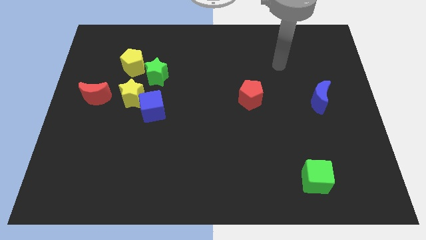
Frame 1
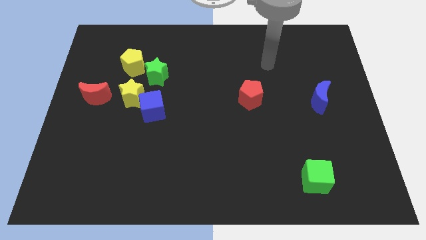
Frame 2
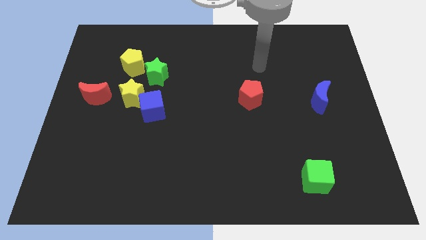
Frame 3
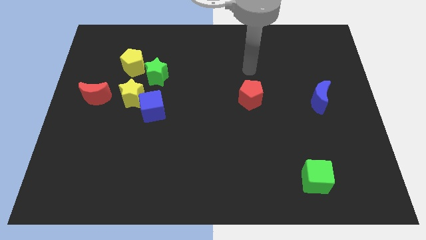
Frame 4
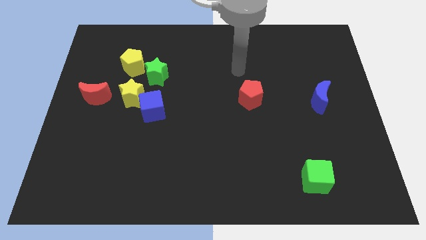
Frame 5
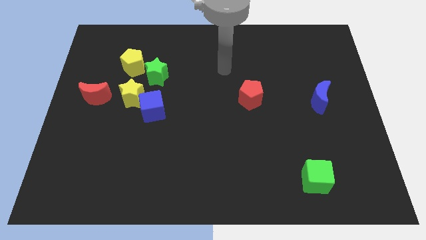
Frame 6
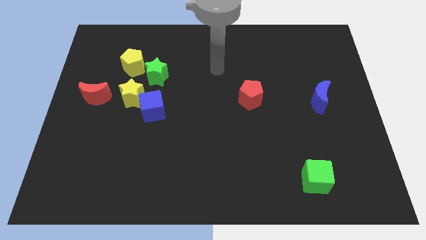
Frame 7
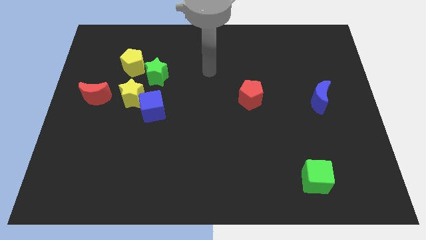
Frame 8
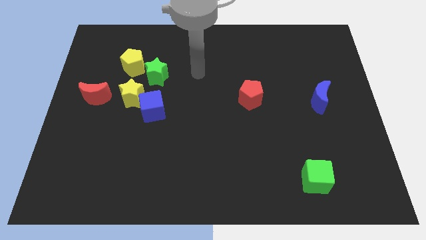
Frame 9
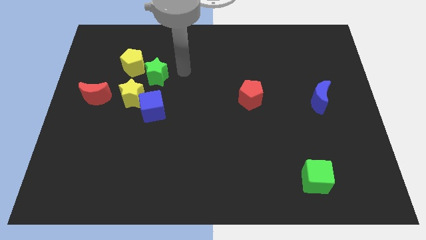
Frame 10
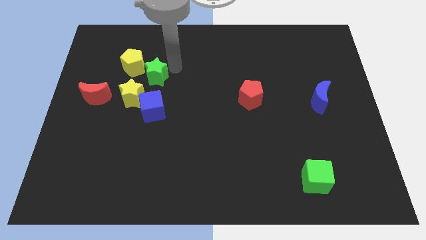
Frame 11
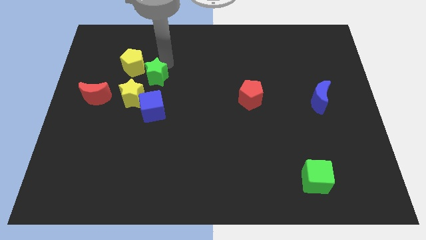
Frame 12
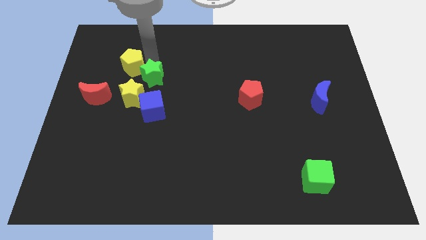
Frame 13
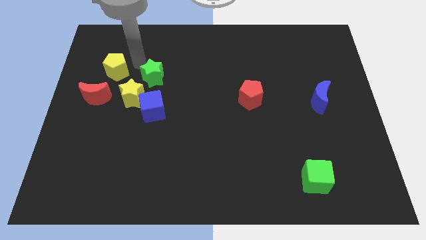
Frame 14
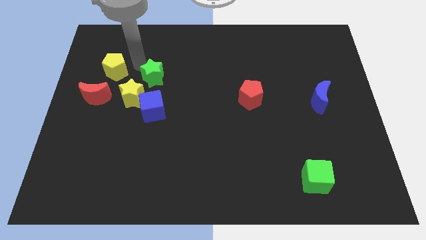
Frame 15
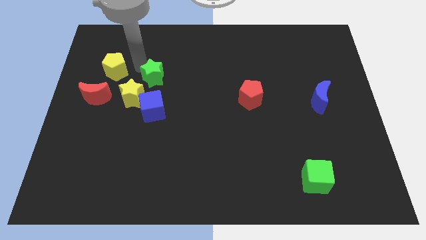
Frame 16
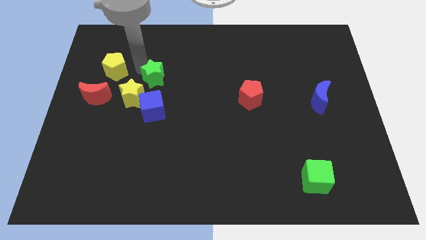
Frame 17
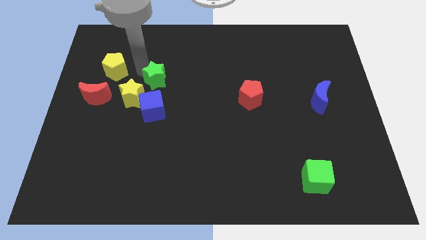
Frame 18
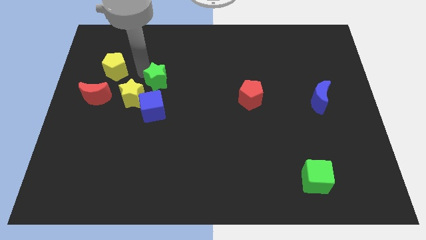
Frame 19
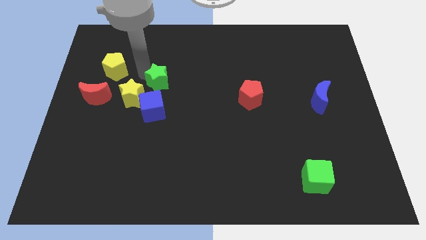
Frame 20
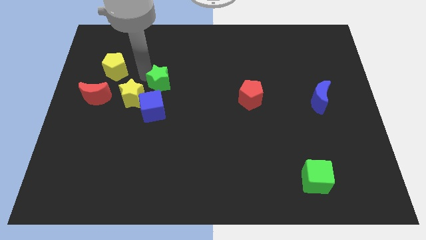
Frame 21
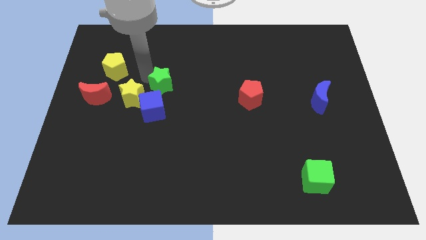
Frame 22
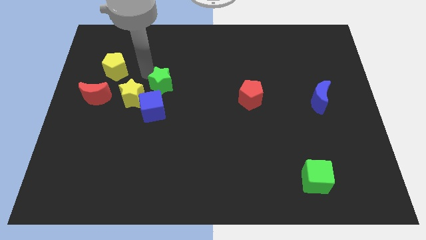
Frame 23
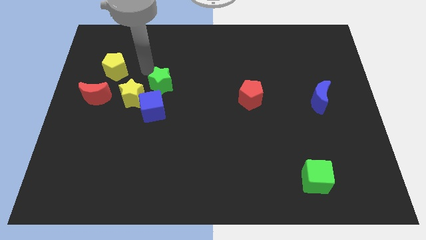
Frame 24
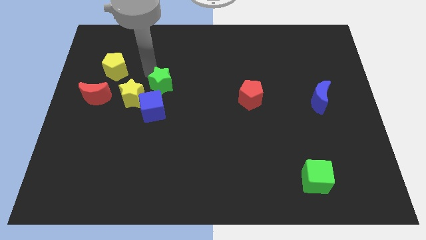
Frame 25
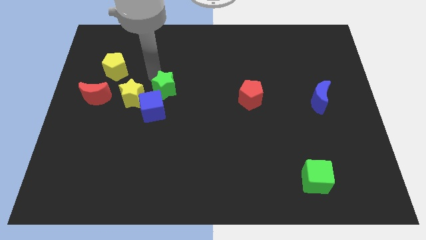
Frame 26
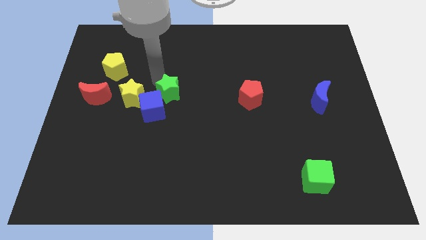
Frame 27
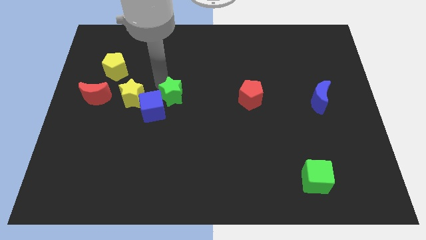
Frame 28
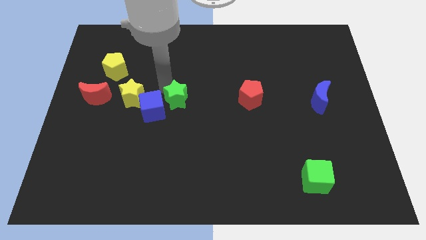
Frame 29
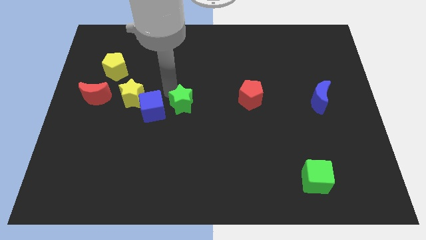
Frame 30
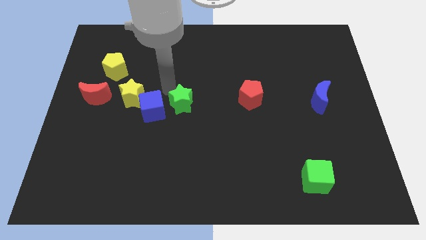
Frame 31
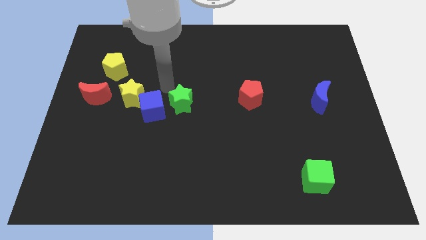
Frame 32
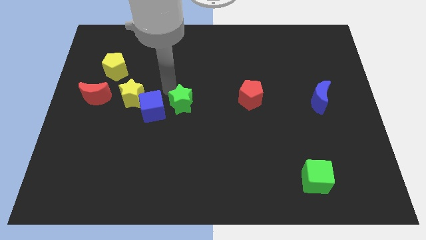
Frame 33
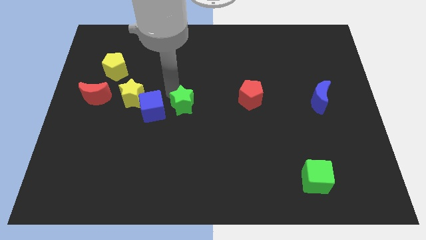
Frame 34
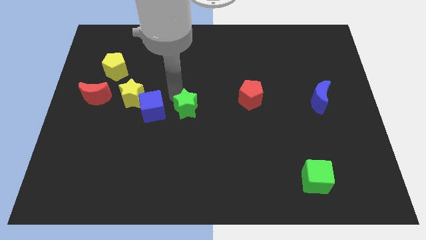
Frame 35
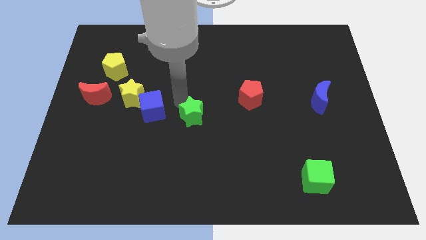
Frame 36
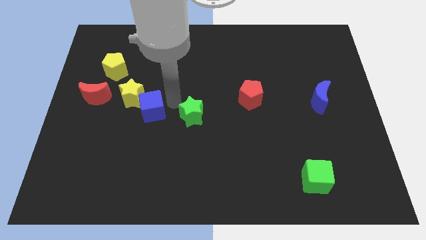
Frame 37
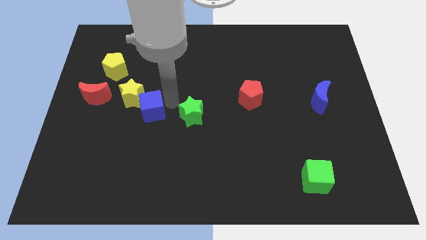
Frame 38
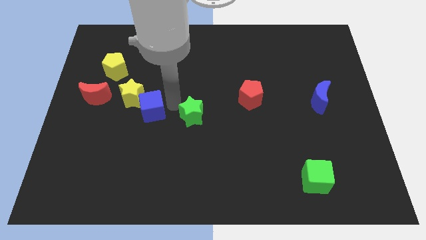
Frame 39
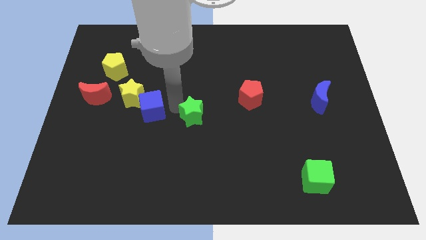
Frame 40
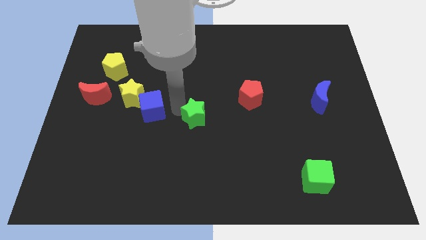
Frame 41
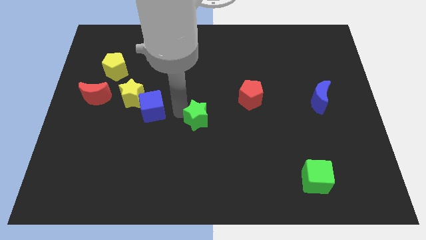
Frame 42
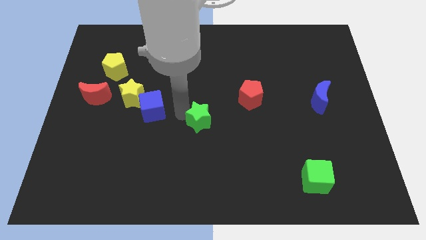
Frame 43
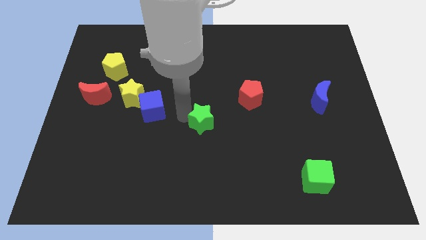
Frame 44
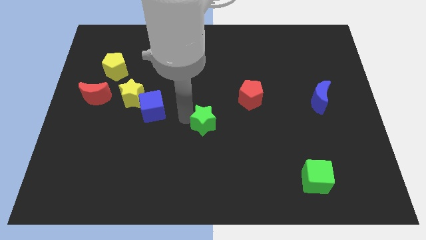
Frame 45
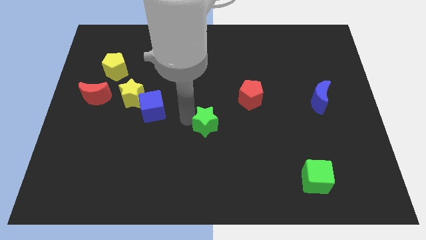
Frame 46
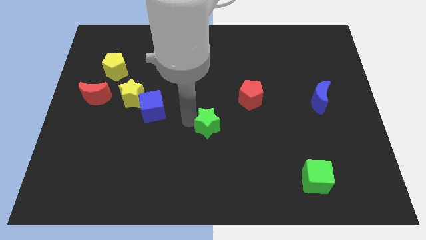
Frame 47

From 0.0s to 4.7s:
push the green star downwards and right

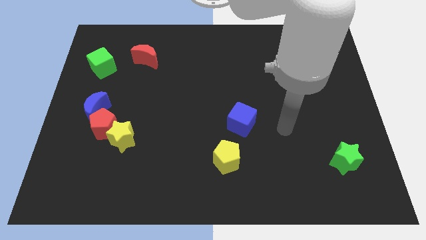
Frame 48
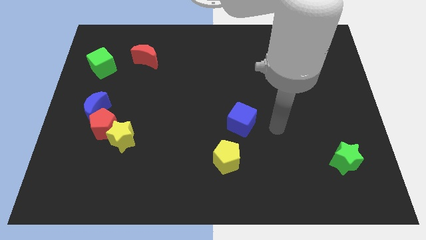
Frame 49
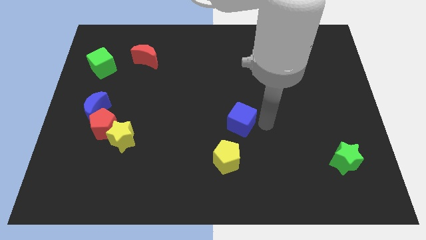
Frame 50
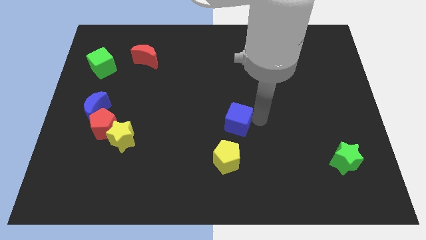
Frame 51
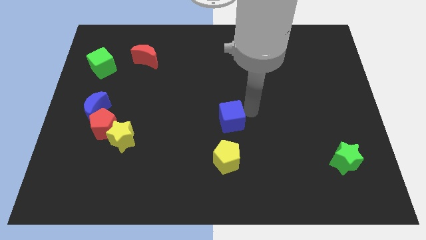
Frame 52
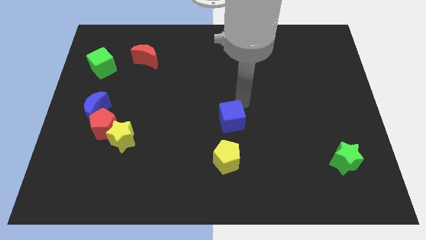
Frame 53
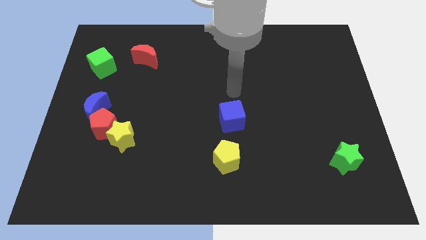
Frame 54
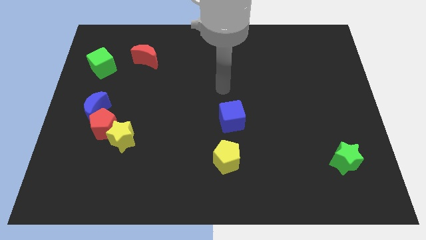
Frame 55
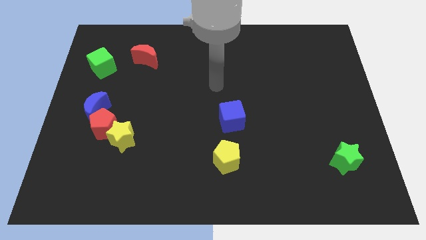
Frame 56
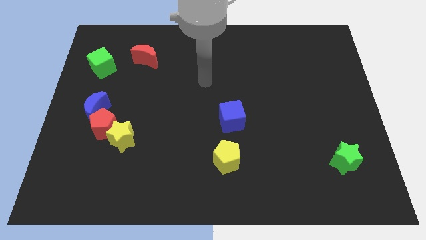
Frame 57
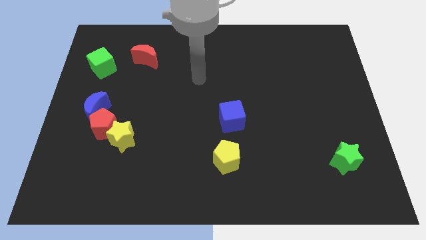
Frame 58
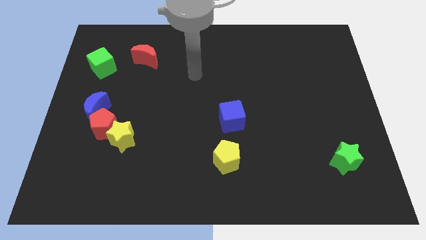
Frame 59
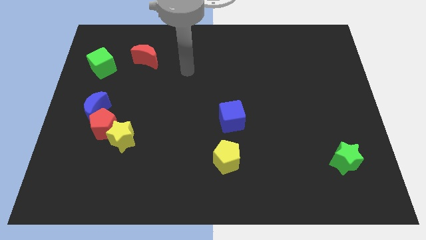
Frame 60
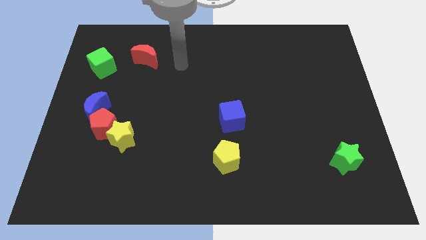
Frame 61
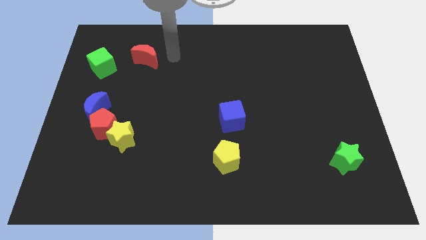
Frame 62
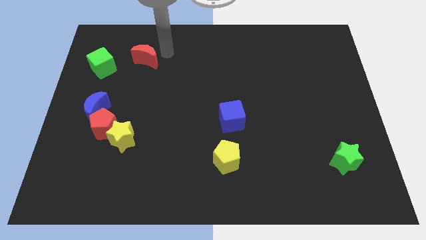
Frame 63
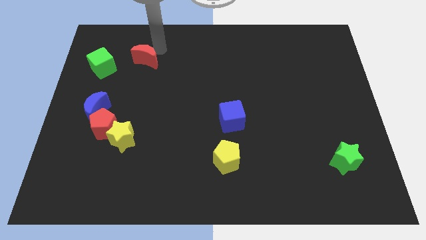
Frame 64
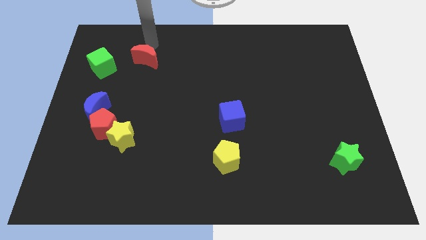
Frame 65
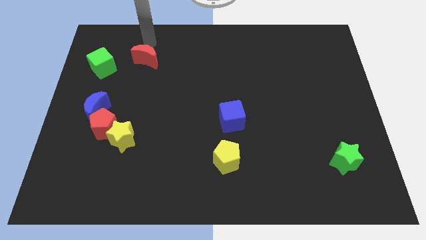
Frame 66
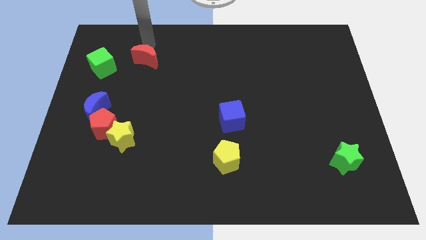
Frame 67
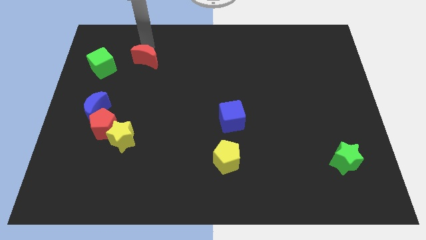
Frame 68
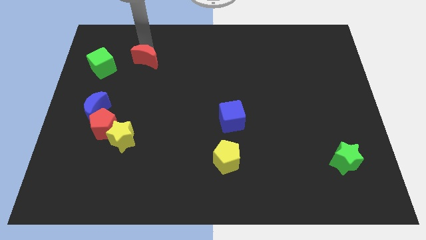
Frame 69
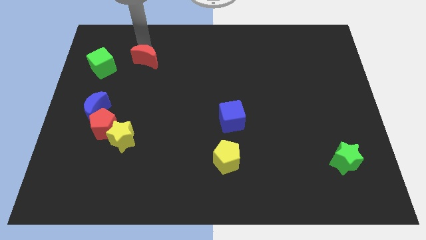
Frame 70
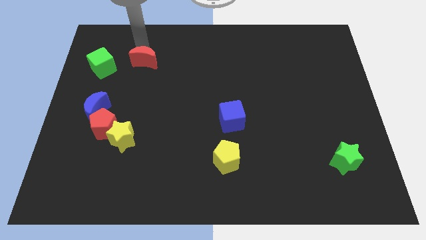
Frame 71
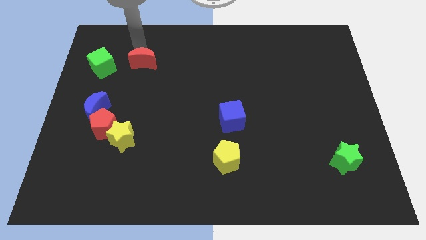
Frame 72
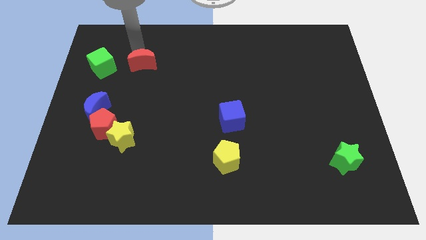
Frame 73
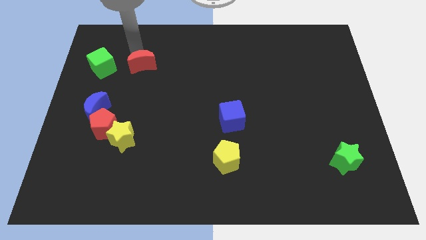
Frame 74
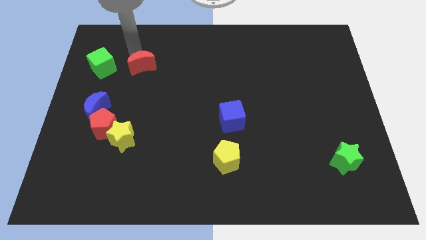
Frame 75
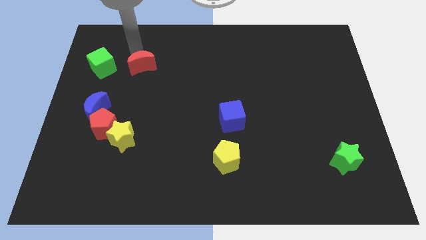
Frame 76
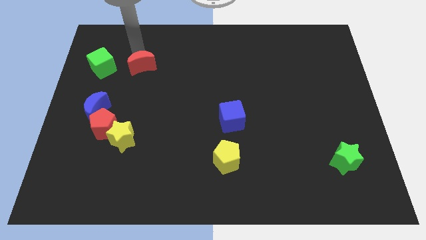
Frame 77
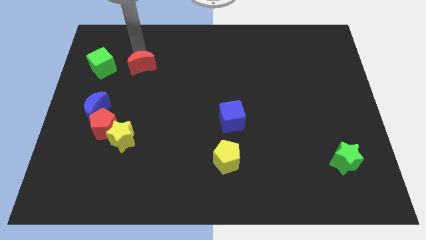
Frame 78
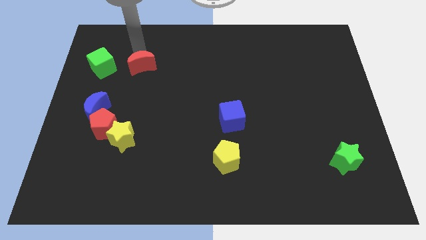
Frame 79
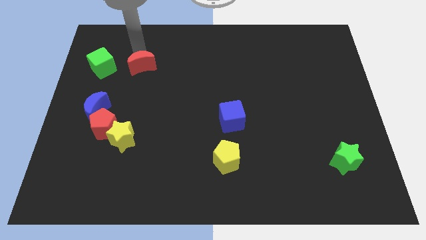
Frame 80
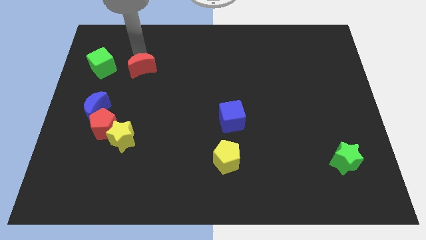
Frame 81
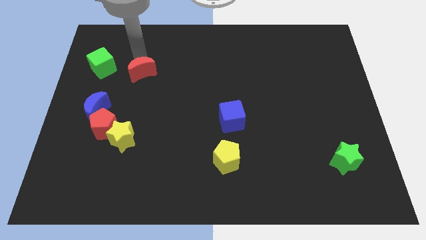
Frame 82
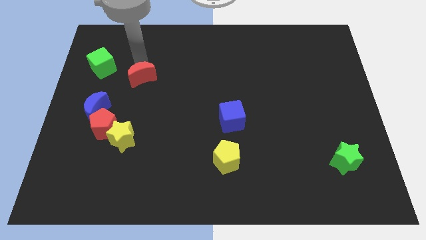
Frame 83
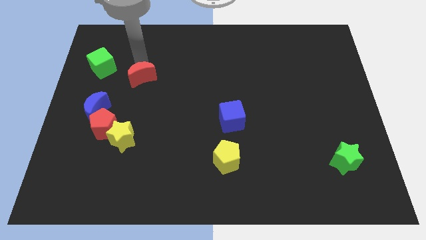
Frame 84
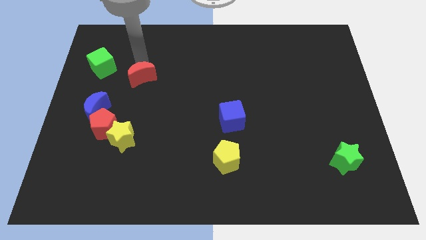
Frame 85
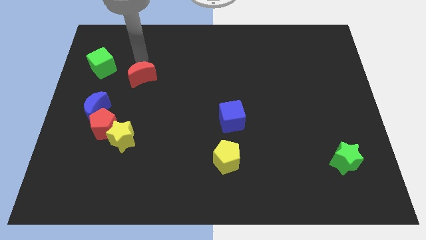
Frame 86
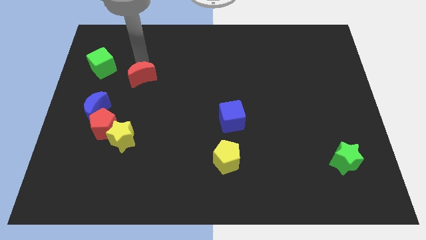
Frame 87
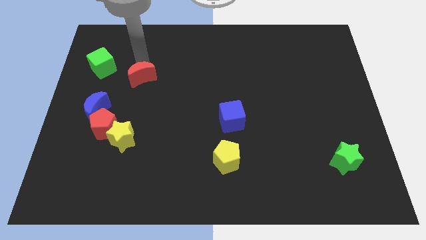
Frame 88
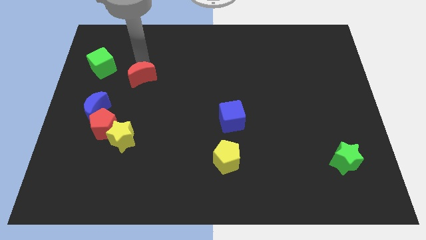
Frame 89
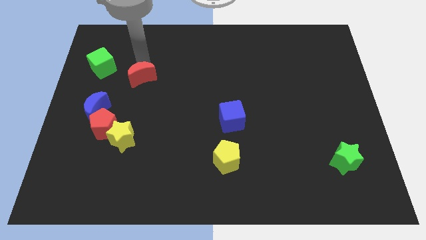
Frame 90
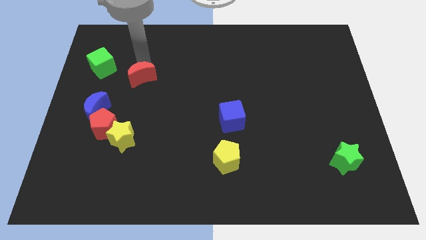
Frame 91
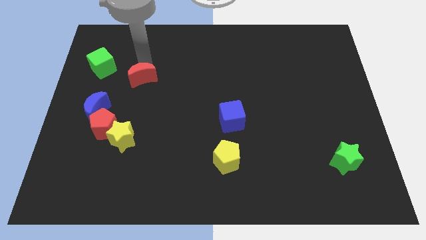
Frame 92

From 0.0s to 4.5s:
slightly slide the red moon down
